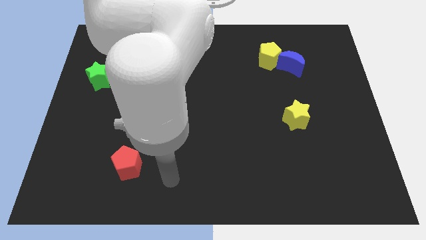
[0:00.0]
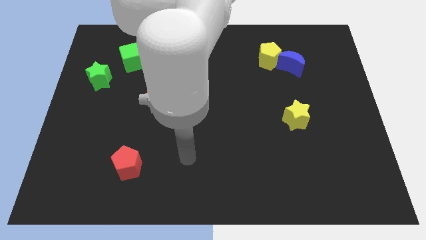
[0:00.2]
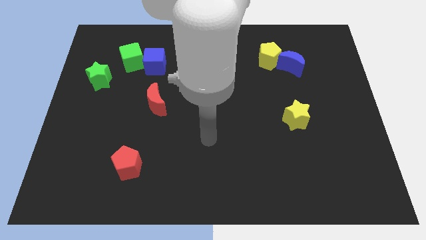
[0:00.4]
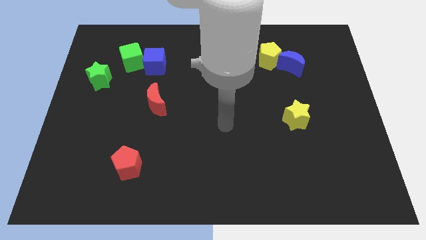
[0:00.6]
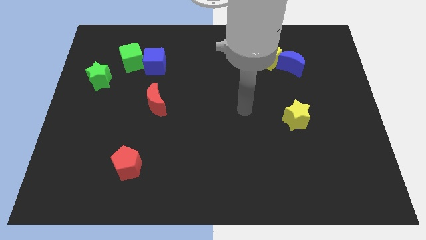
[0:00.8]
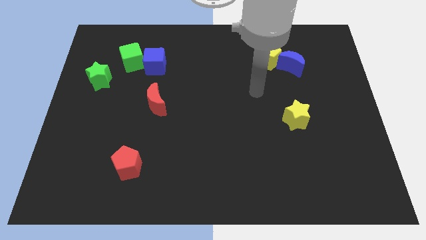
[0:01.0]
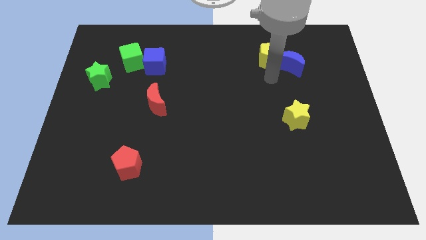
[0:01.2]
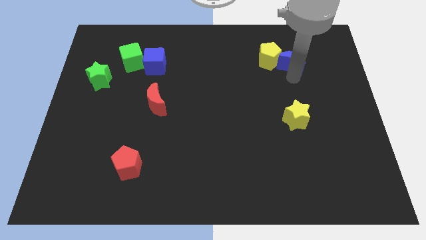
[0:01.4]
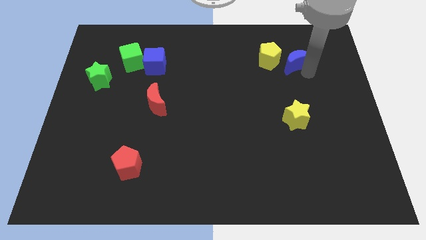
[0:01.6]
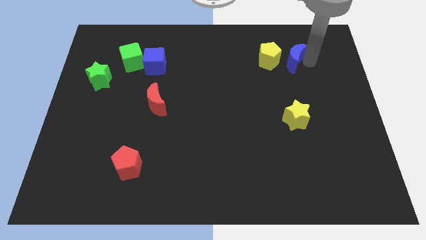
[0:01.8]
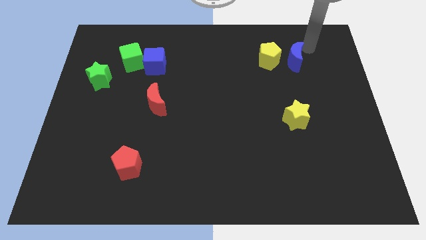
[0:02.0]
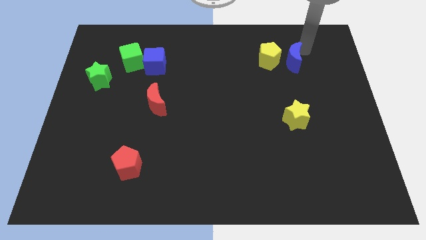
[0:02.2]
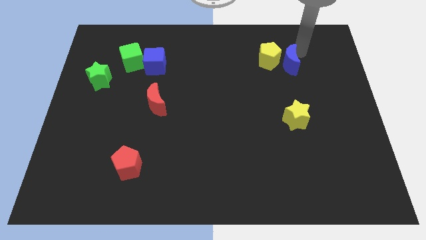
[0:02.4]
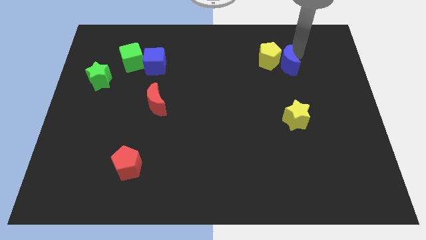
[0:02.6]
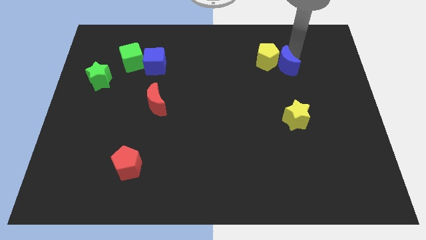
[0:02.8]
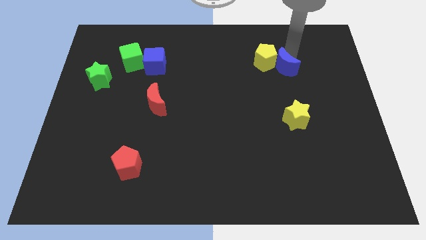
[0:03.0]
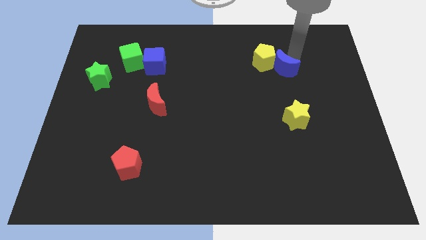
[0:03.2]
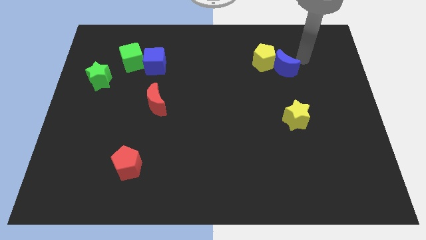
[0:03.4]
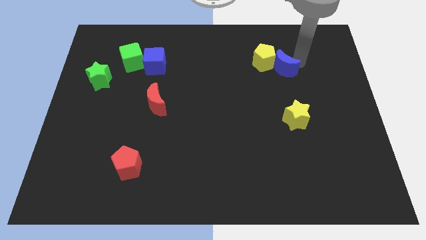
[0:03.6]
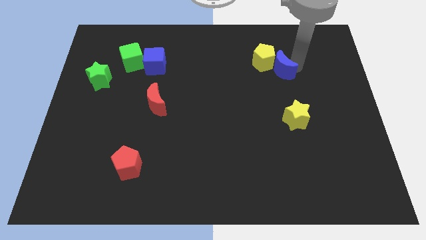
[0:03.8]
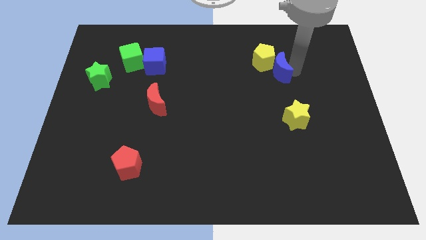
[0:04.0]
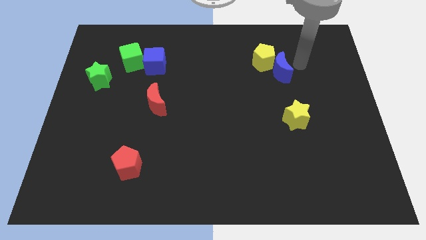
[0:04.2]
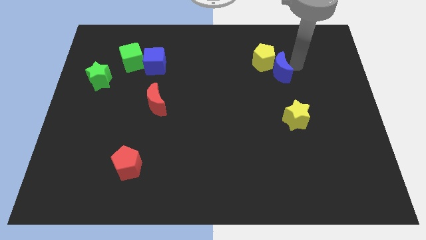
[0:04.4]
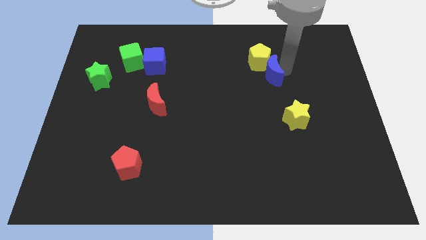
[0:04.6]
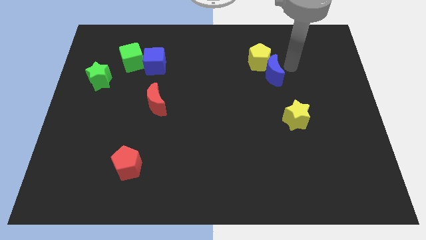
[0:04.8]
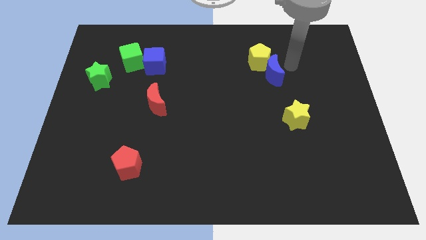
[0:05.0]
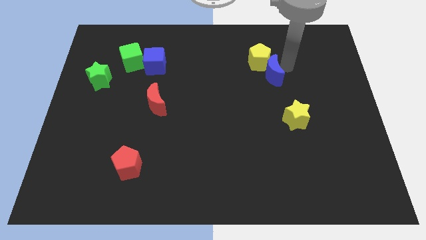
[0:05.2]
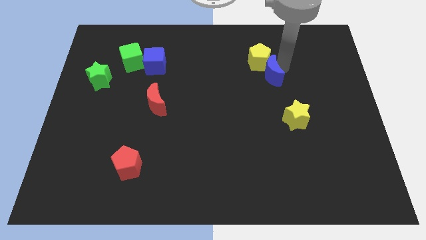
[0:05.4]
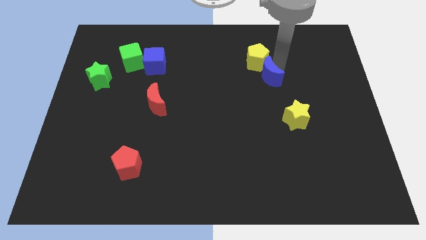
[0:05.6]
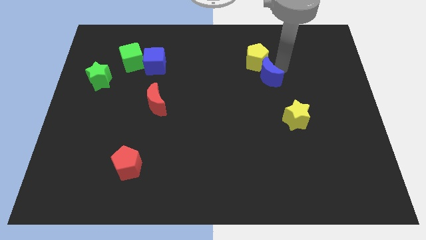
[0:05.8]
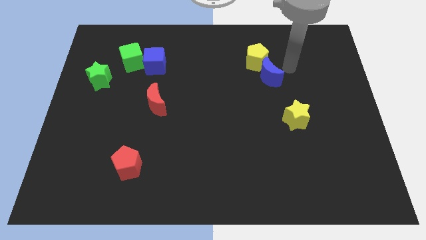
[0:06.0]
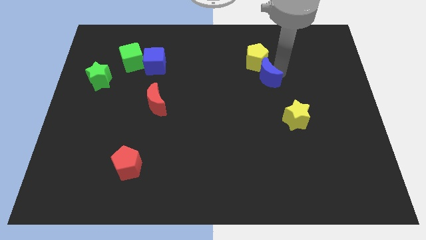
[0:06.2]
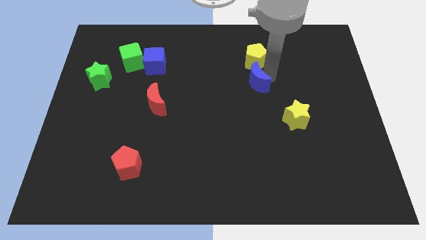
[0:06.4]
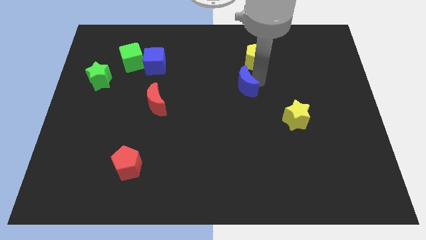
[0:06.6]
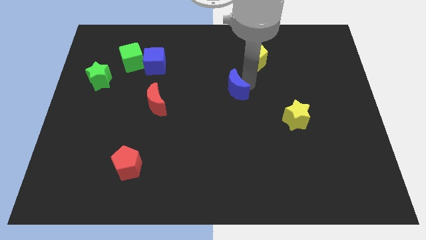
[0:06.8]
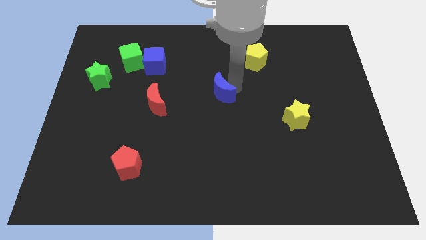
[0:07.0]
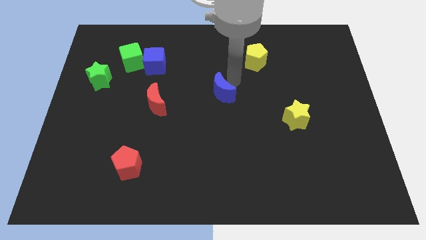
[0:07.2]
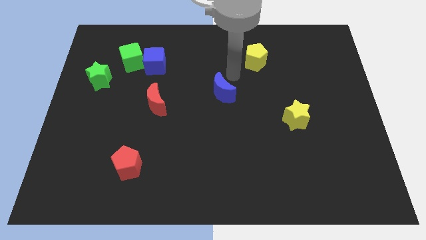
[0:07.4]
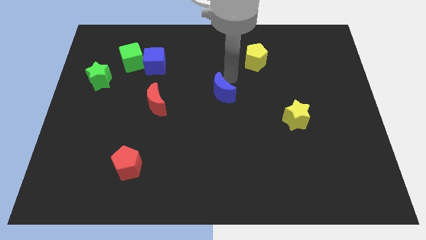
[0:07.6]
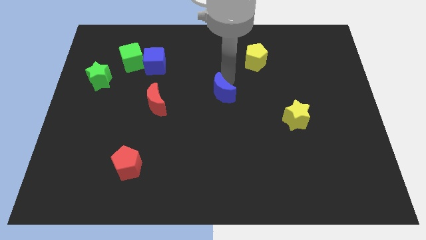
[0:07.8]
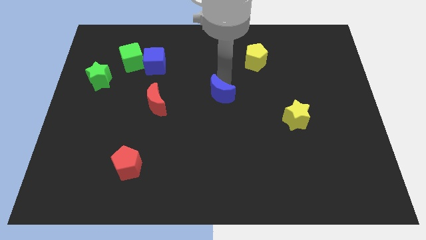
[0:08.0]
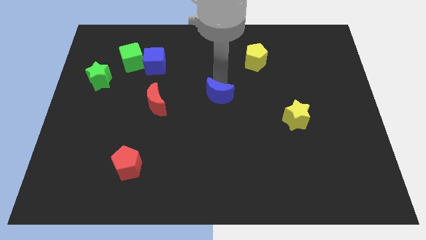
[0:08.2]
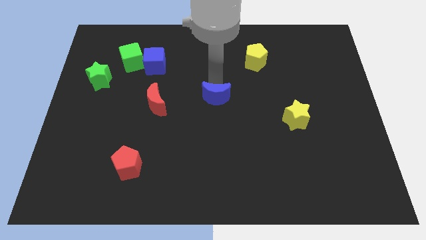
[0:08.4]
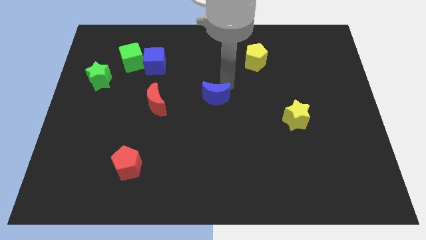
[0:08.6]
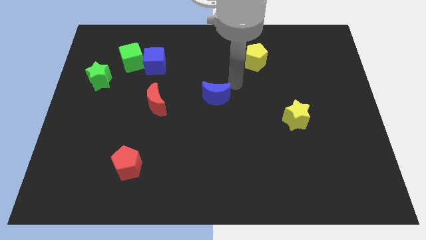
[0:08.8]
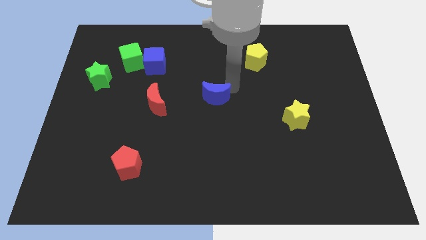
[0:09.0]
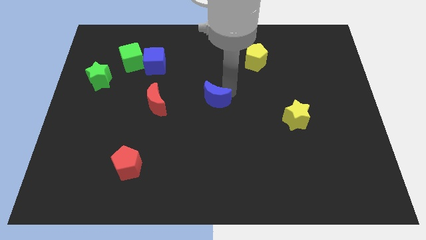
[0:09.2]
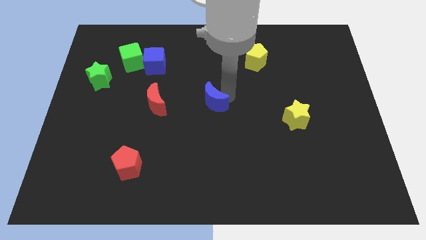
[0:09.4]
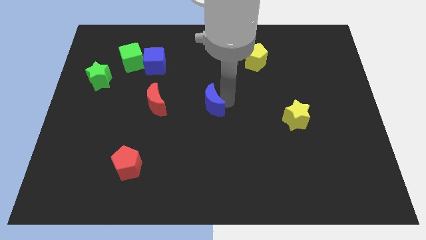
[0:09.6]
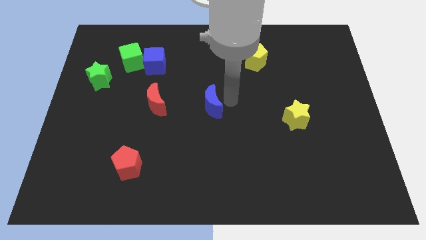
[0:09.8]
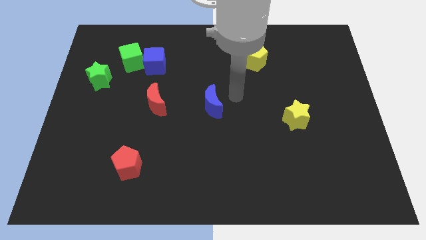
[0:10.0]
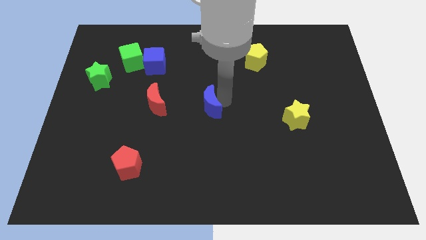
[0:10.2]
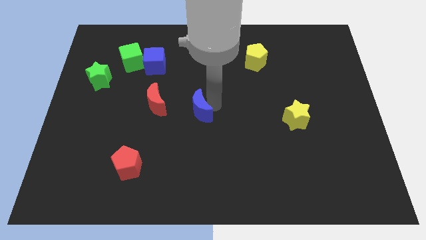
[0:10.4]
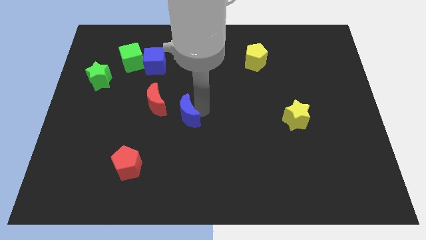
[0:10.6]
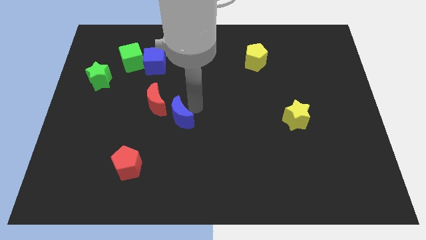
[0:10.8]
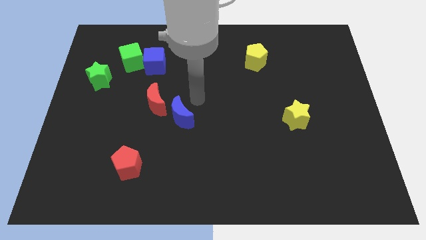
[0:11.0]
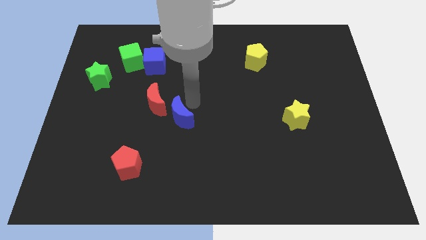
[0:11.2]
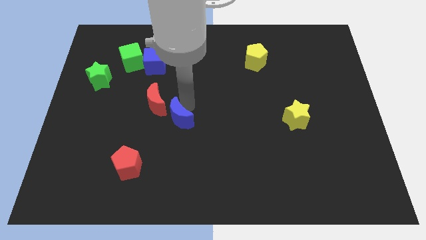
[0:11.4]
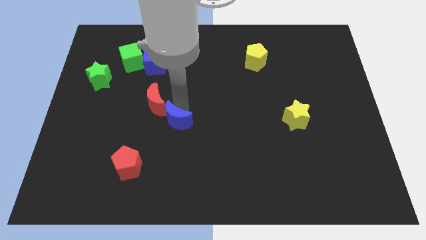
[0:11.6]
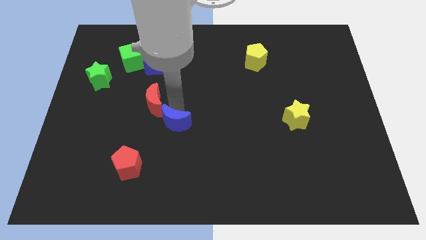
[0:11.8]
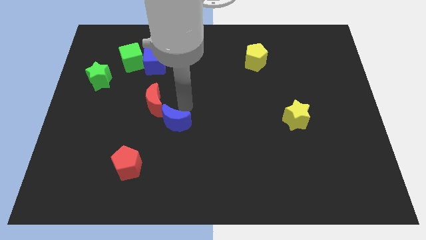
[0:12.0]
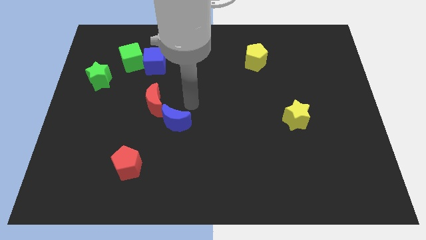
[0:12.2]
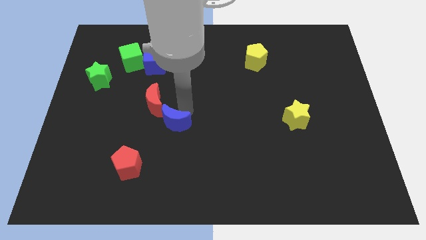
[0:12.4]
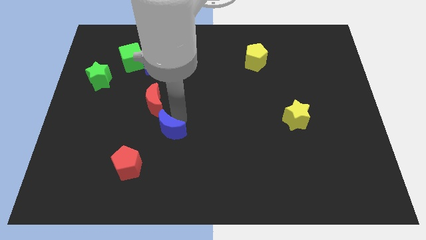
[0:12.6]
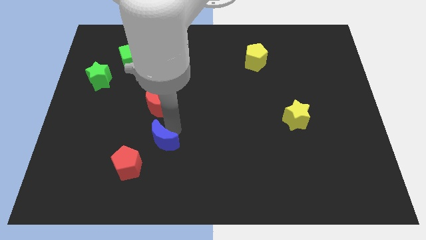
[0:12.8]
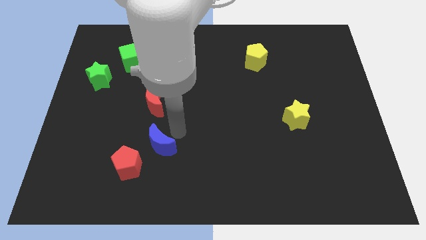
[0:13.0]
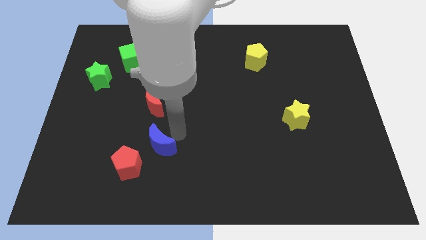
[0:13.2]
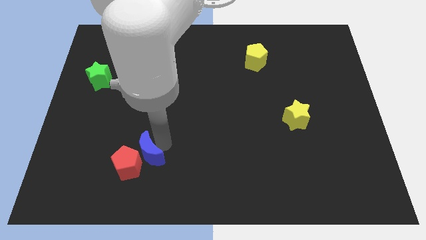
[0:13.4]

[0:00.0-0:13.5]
slide the blue moon to the red pentagon

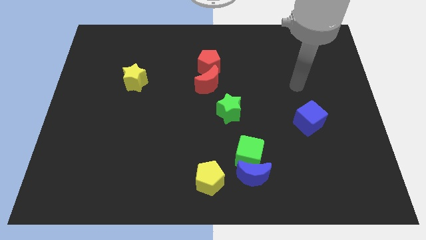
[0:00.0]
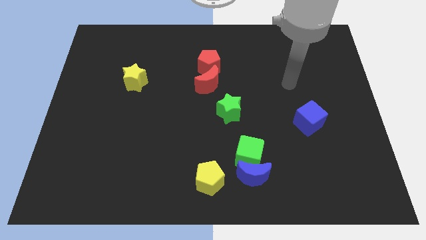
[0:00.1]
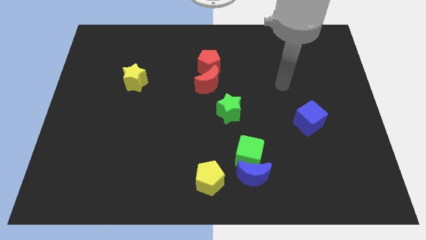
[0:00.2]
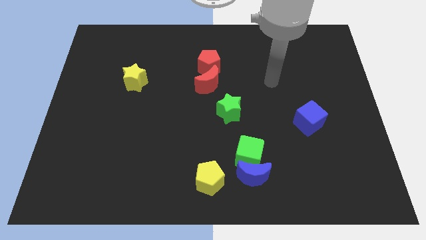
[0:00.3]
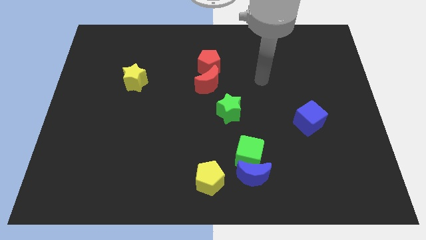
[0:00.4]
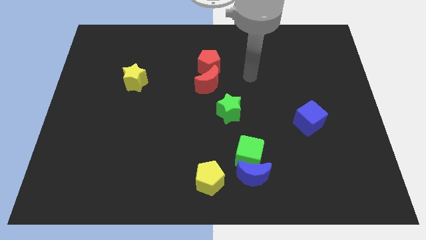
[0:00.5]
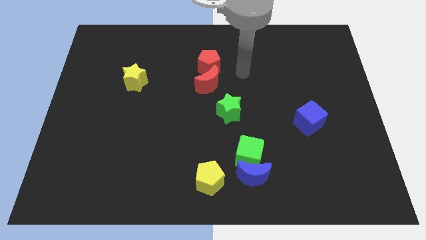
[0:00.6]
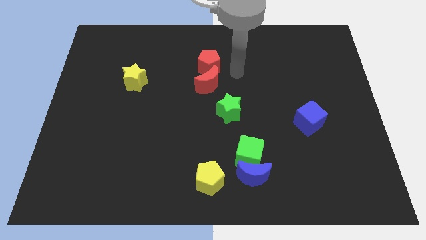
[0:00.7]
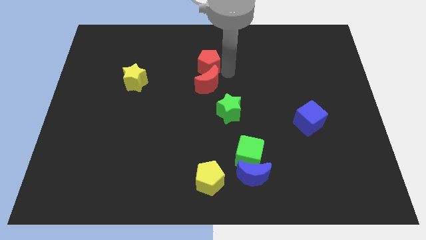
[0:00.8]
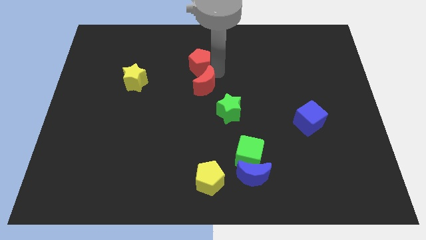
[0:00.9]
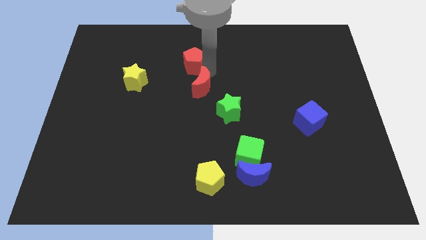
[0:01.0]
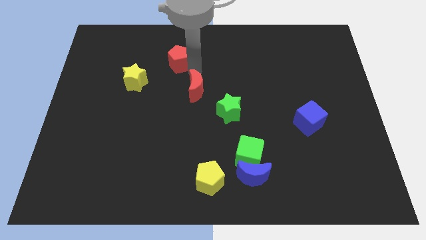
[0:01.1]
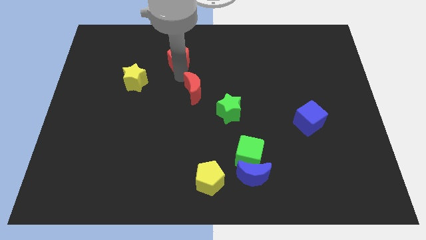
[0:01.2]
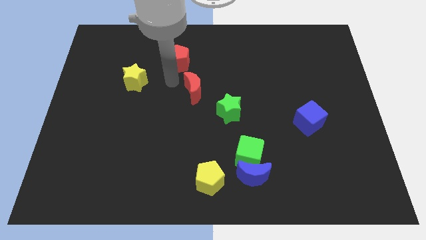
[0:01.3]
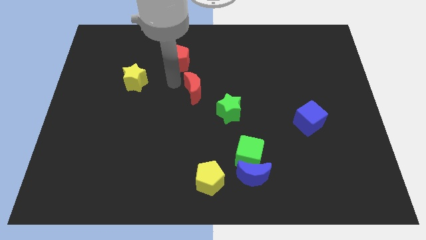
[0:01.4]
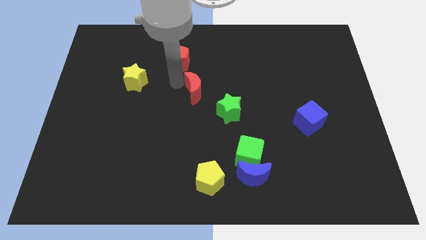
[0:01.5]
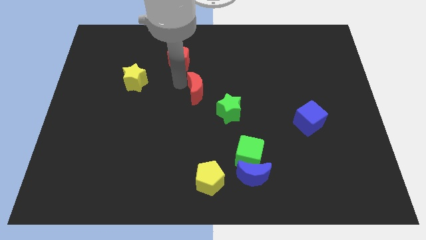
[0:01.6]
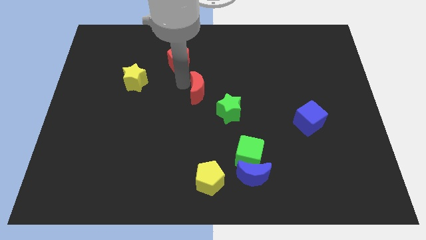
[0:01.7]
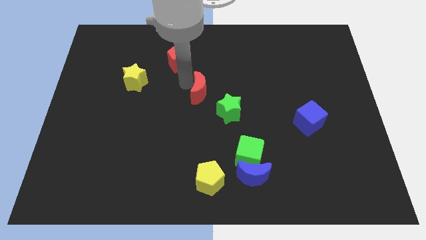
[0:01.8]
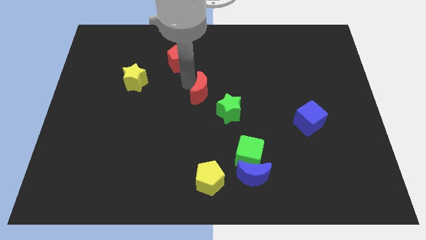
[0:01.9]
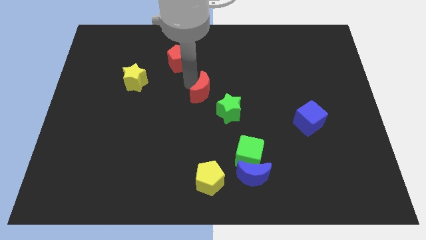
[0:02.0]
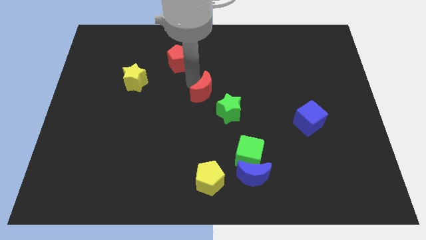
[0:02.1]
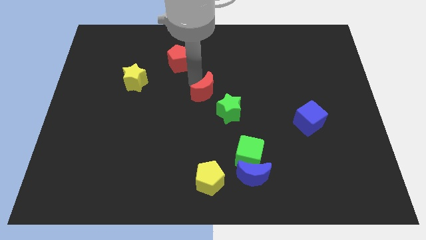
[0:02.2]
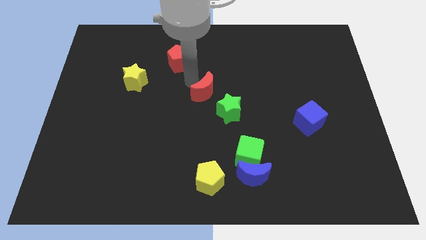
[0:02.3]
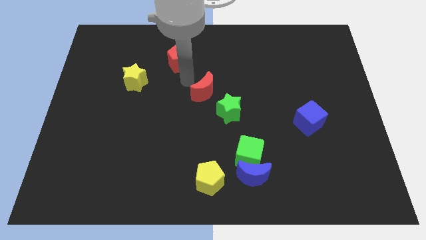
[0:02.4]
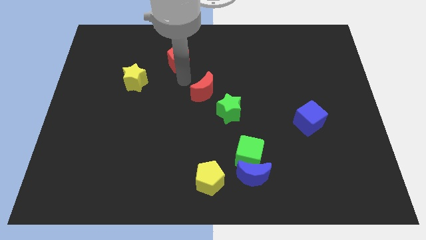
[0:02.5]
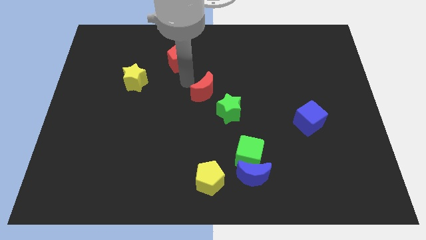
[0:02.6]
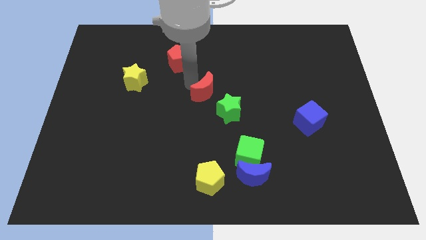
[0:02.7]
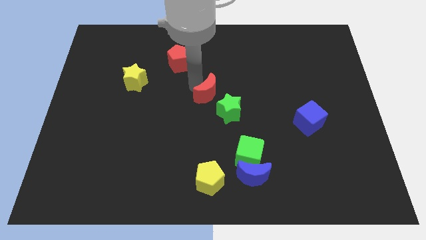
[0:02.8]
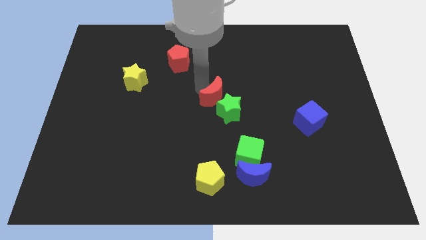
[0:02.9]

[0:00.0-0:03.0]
put the red moon towards the green star
